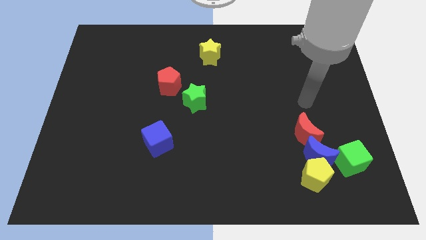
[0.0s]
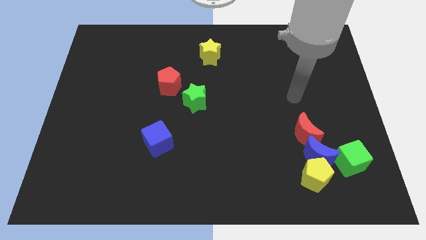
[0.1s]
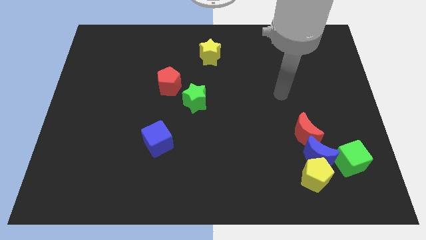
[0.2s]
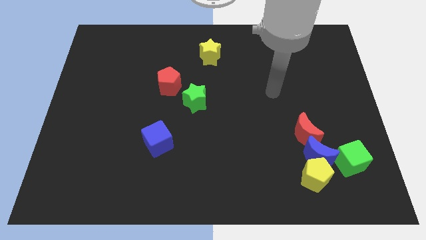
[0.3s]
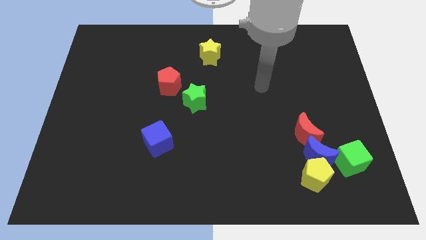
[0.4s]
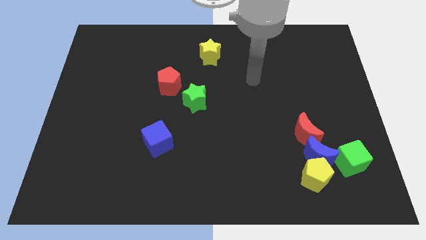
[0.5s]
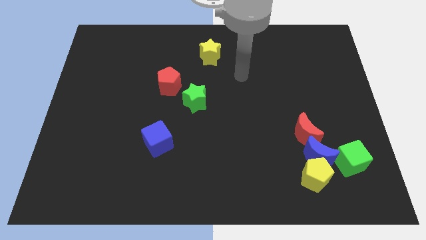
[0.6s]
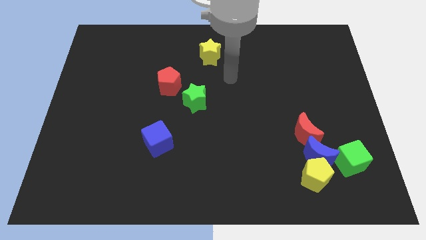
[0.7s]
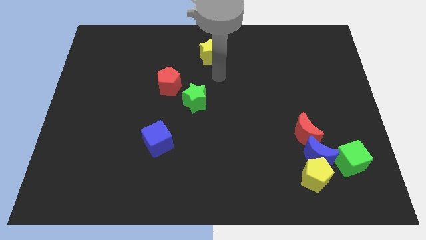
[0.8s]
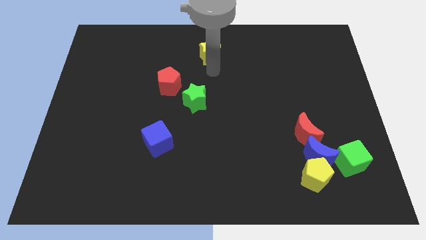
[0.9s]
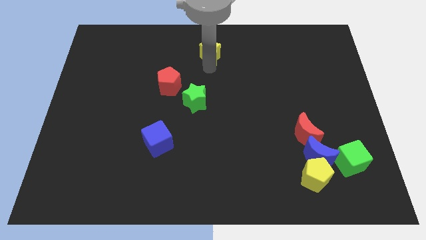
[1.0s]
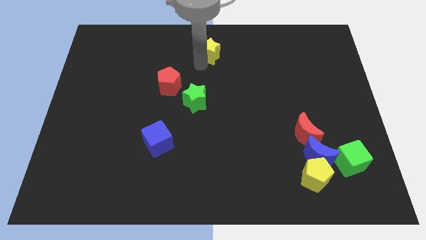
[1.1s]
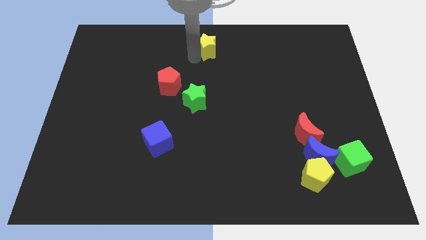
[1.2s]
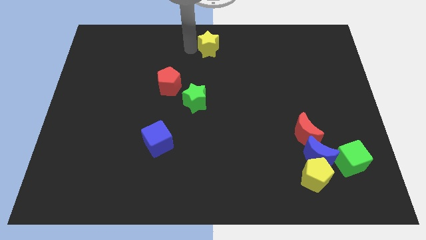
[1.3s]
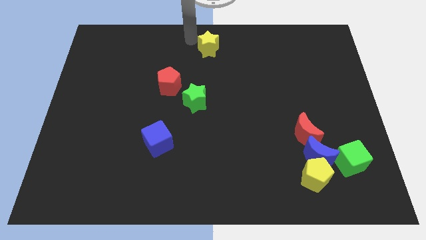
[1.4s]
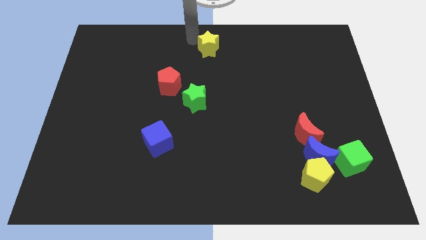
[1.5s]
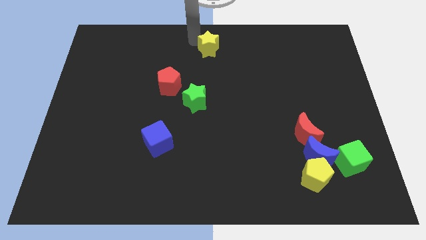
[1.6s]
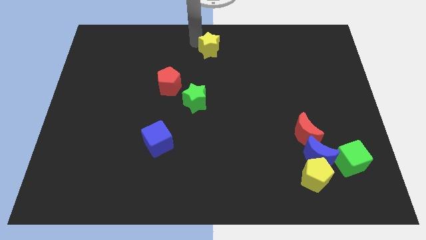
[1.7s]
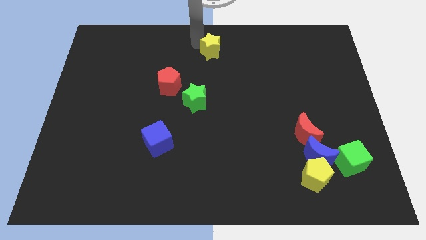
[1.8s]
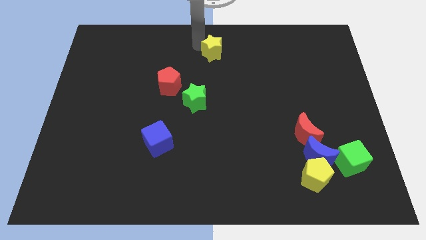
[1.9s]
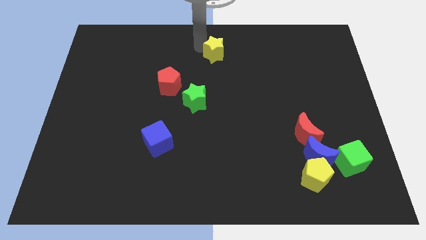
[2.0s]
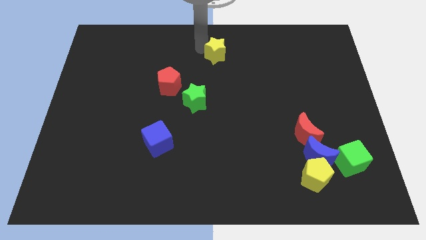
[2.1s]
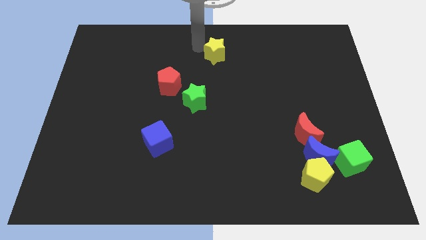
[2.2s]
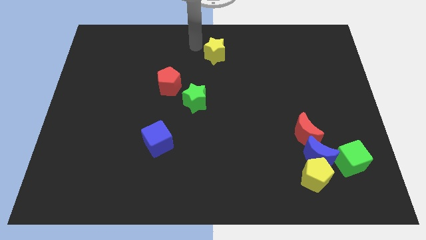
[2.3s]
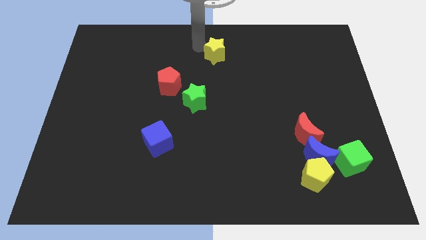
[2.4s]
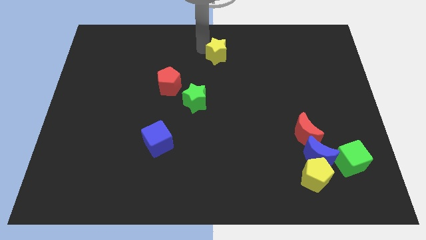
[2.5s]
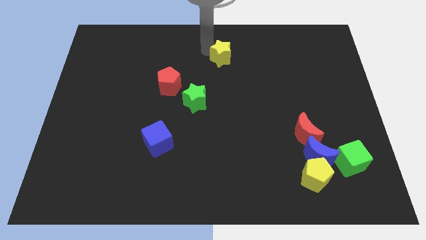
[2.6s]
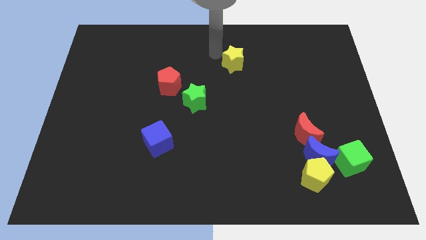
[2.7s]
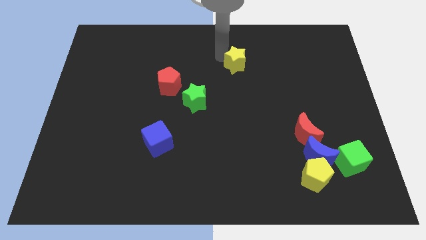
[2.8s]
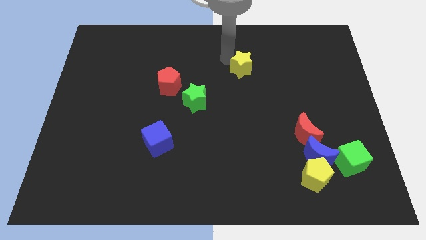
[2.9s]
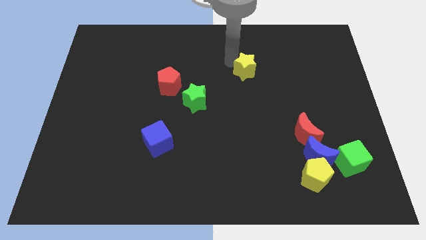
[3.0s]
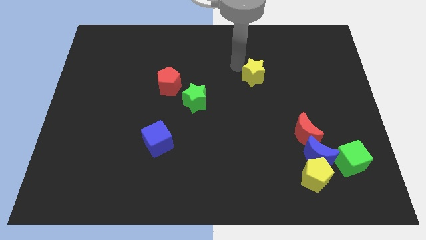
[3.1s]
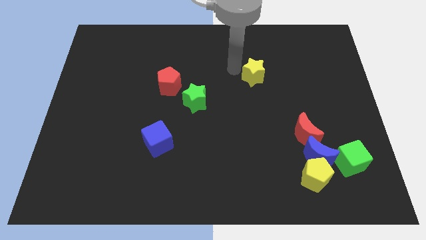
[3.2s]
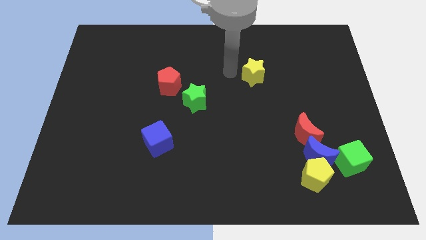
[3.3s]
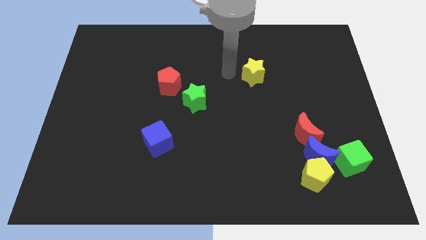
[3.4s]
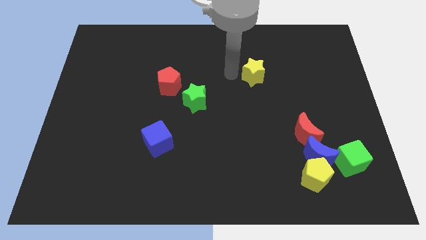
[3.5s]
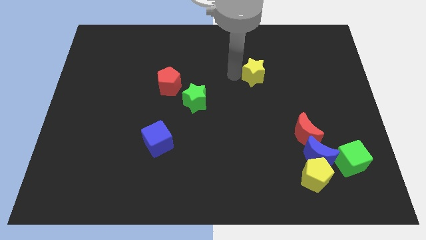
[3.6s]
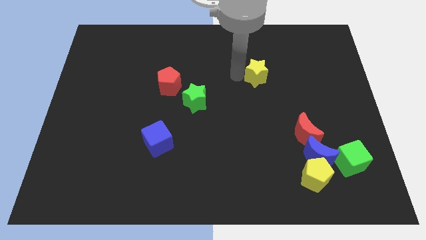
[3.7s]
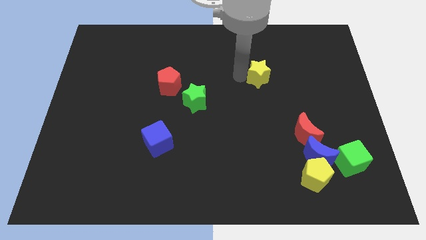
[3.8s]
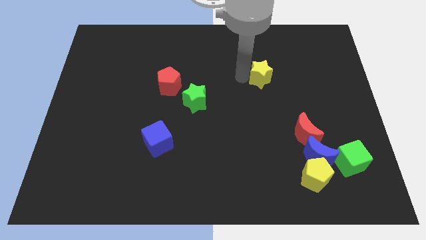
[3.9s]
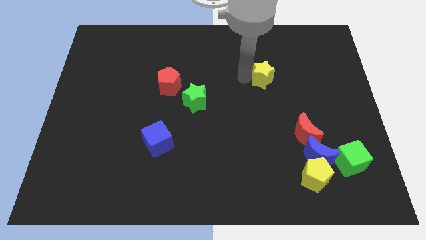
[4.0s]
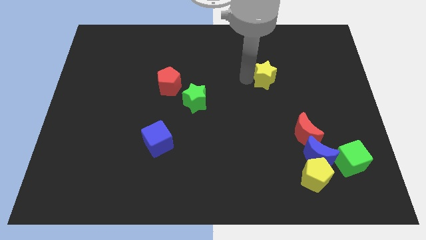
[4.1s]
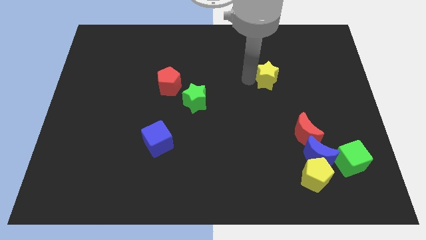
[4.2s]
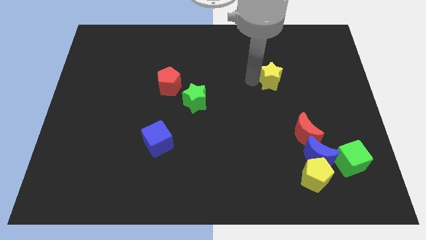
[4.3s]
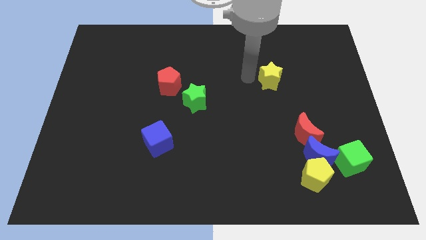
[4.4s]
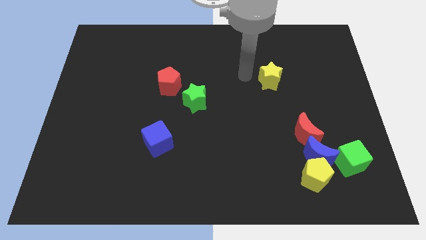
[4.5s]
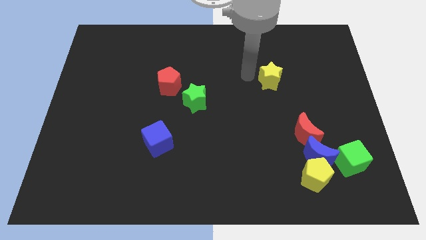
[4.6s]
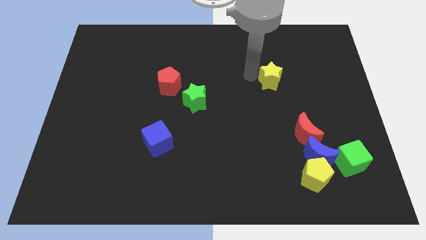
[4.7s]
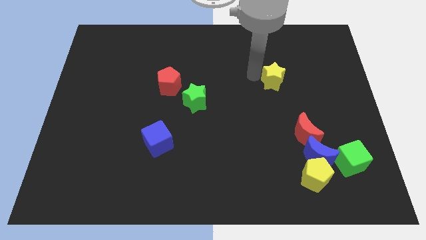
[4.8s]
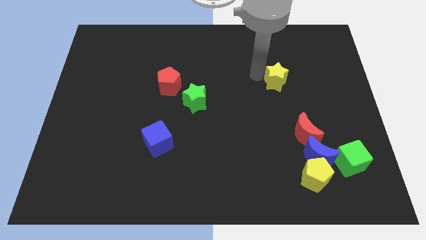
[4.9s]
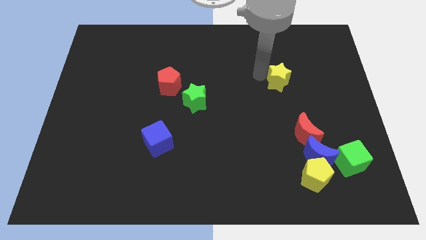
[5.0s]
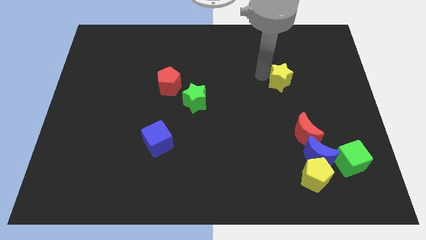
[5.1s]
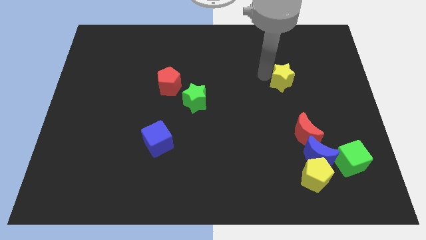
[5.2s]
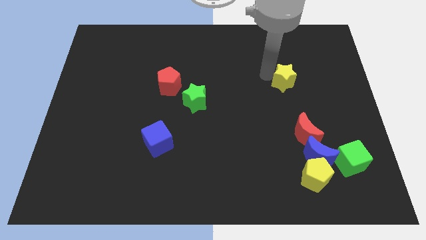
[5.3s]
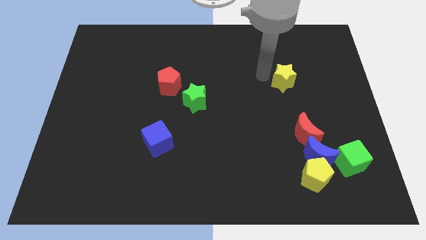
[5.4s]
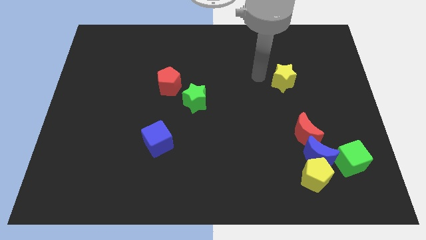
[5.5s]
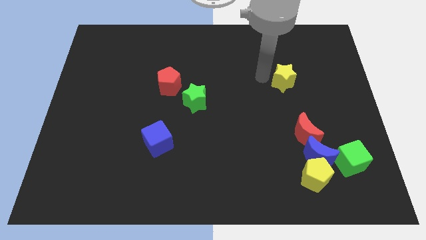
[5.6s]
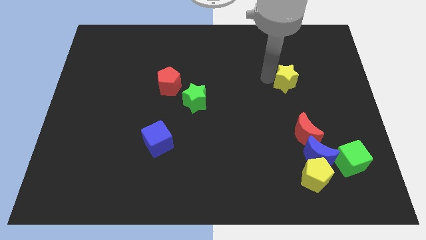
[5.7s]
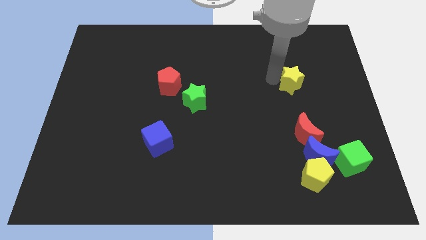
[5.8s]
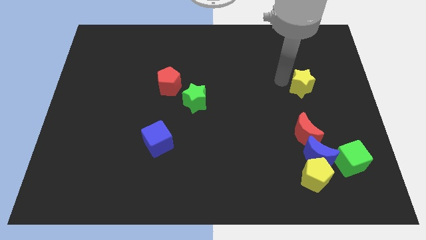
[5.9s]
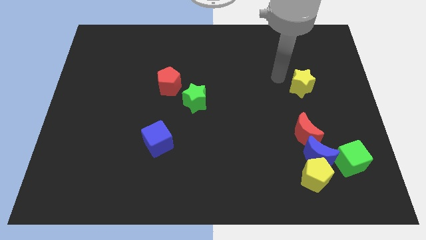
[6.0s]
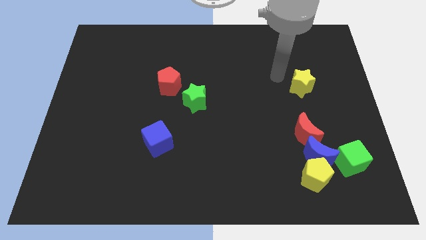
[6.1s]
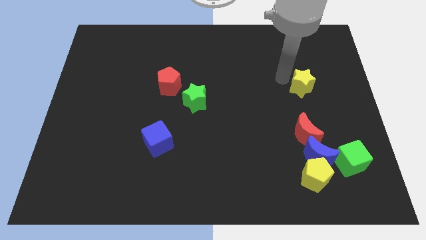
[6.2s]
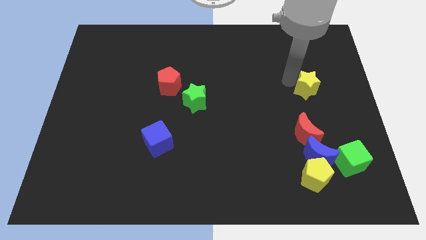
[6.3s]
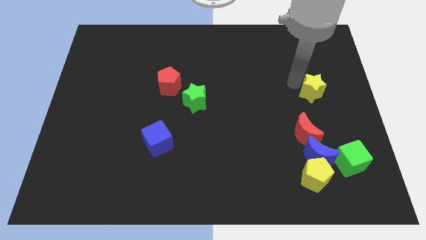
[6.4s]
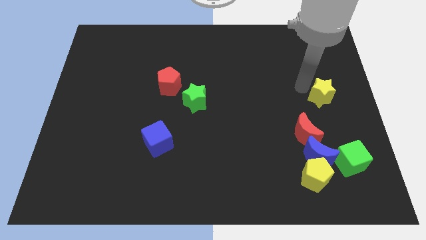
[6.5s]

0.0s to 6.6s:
put the yellow star to the center right
